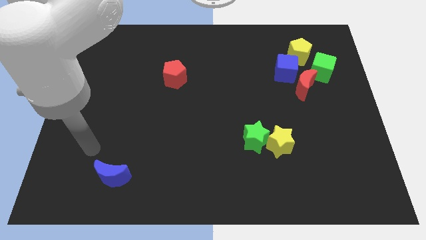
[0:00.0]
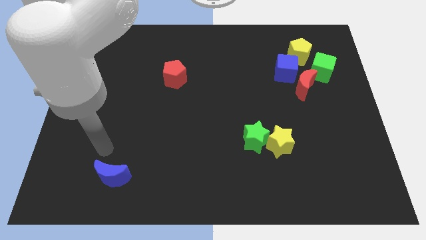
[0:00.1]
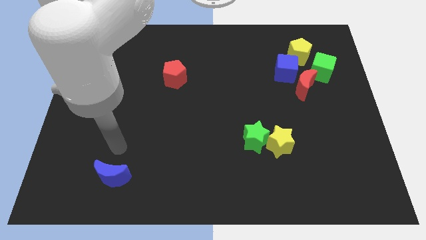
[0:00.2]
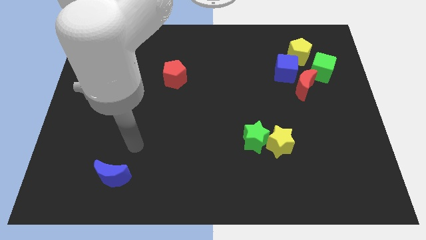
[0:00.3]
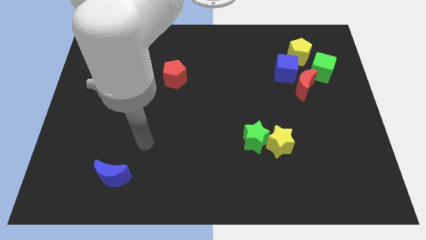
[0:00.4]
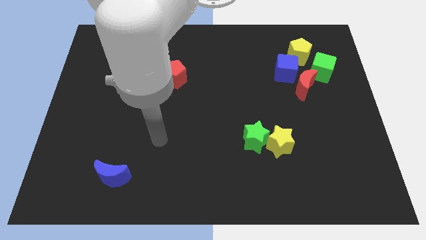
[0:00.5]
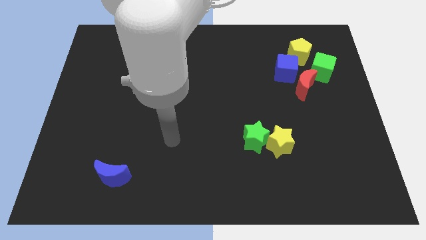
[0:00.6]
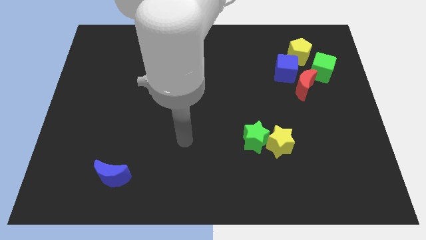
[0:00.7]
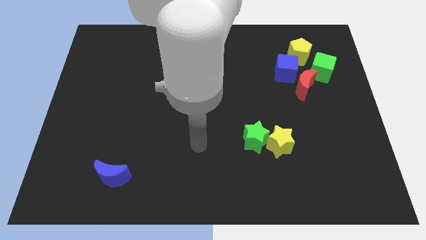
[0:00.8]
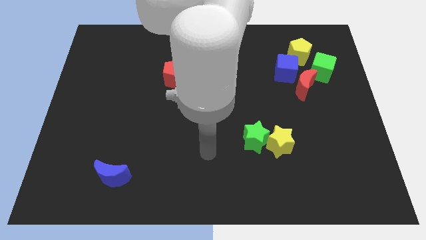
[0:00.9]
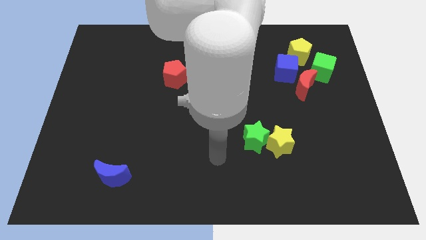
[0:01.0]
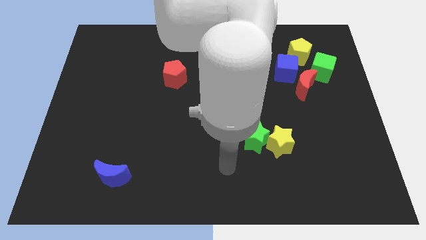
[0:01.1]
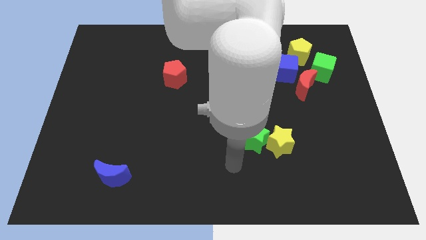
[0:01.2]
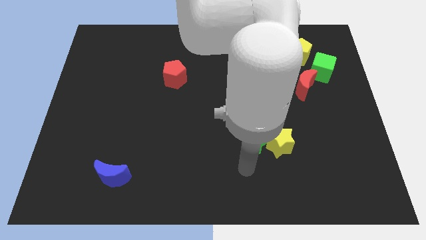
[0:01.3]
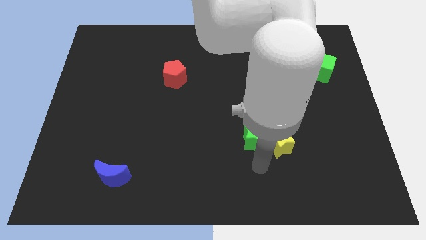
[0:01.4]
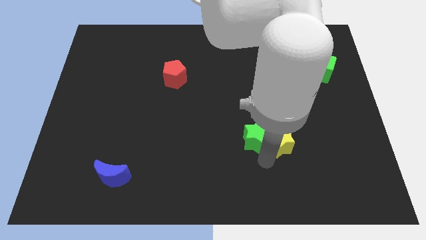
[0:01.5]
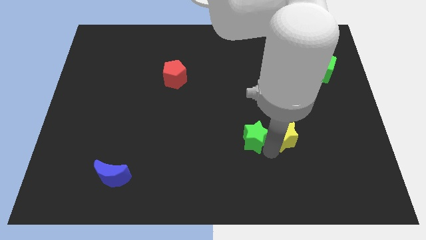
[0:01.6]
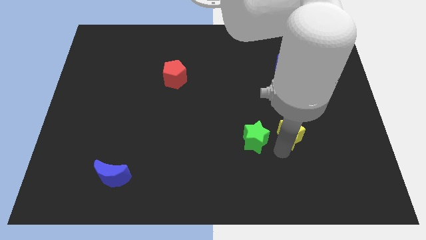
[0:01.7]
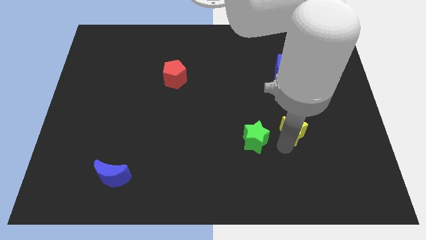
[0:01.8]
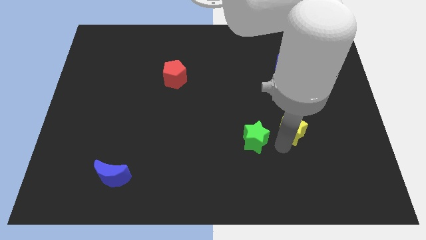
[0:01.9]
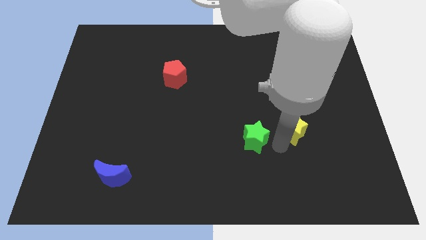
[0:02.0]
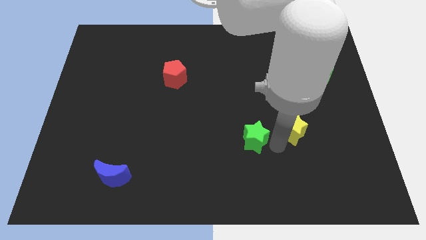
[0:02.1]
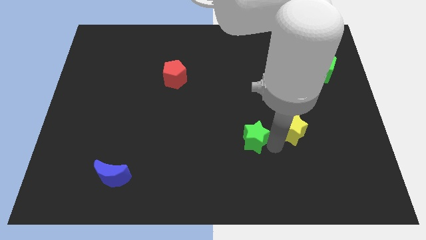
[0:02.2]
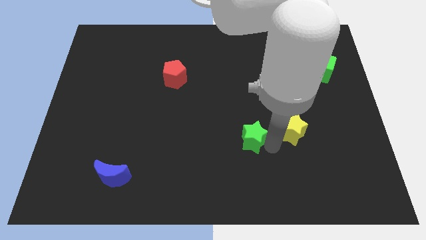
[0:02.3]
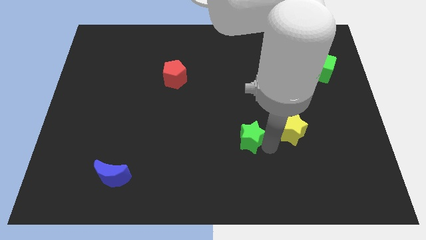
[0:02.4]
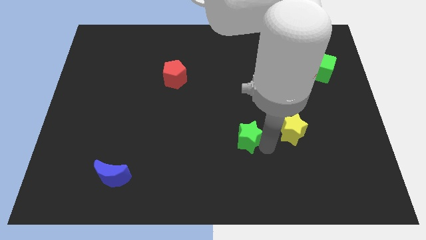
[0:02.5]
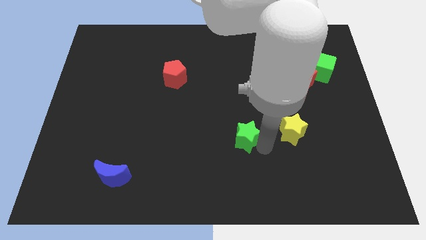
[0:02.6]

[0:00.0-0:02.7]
separate the green star from the yellow star

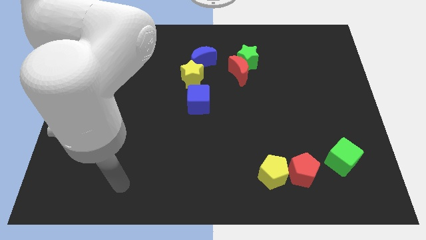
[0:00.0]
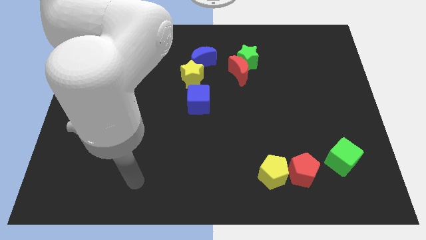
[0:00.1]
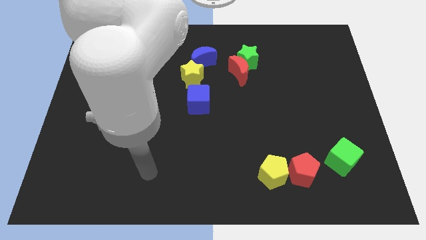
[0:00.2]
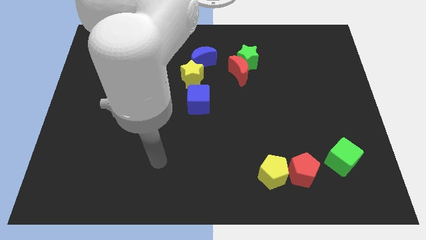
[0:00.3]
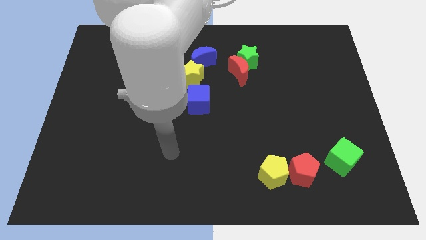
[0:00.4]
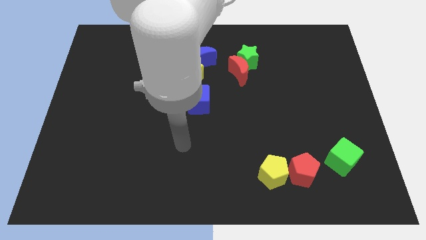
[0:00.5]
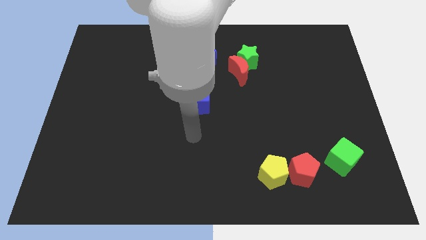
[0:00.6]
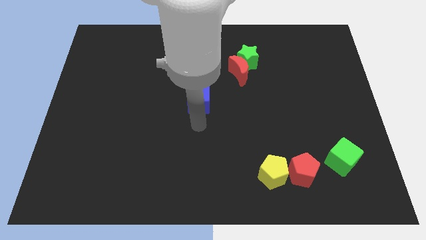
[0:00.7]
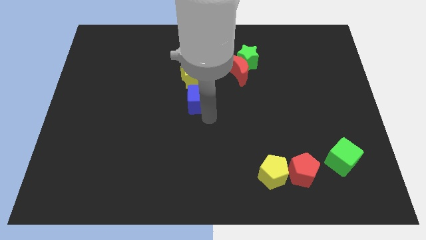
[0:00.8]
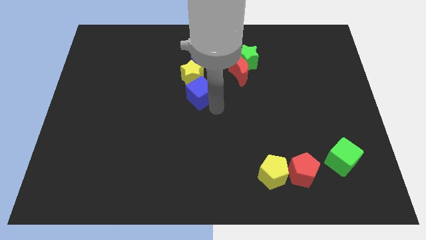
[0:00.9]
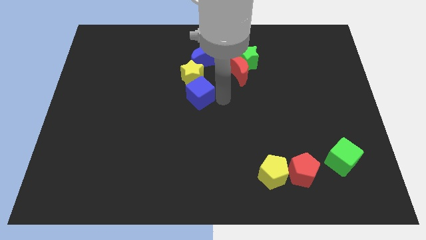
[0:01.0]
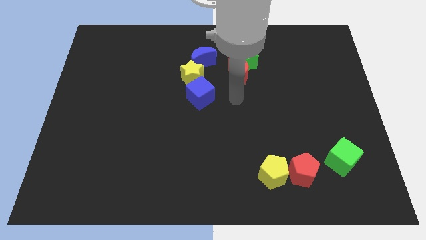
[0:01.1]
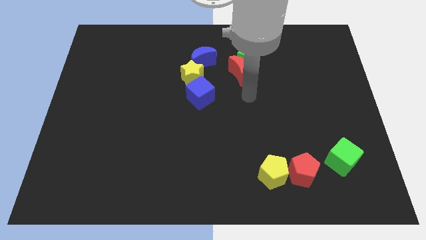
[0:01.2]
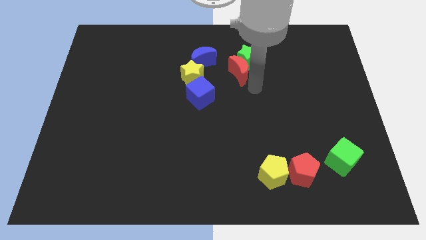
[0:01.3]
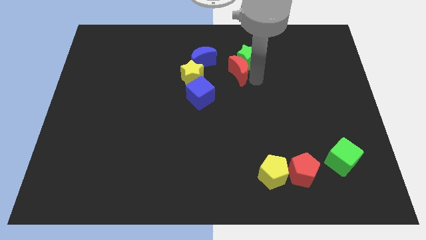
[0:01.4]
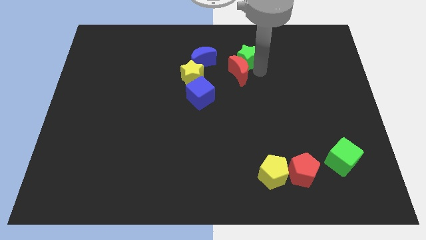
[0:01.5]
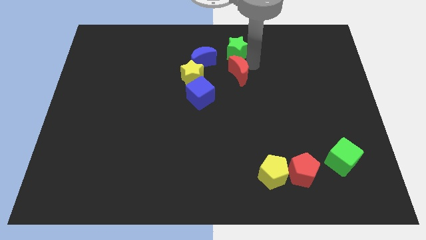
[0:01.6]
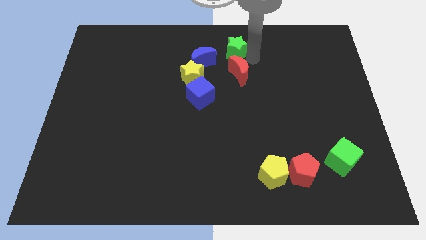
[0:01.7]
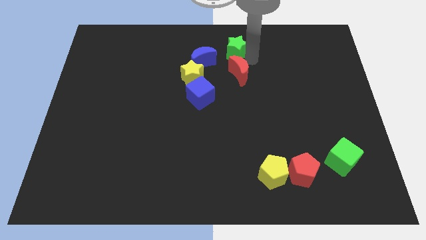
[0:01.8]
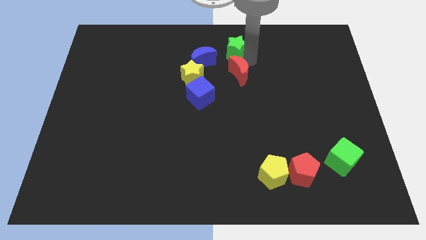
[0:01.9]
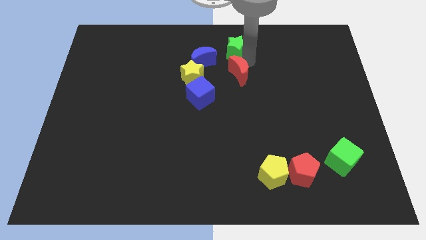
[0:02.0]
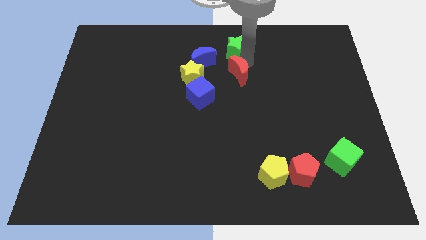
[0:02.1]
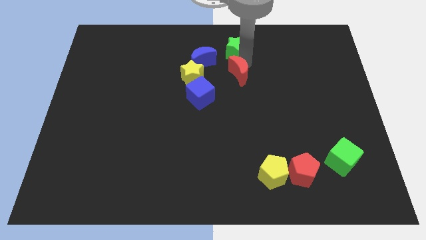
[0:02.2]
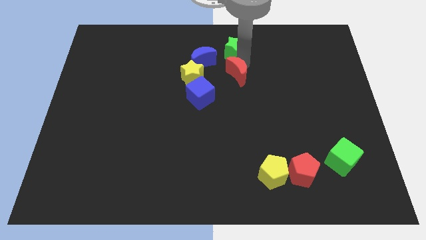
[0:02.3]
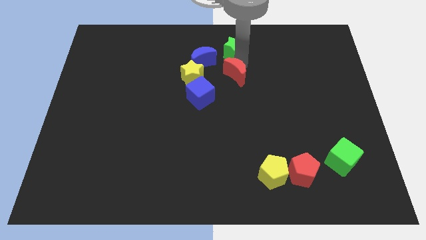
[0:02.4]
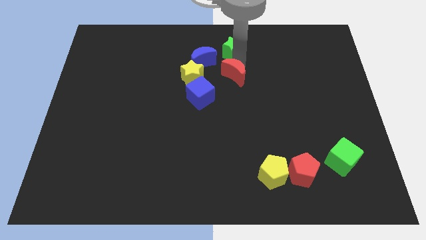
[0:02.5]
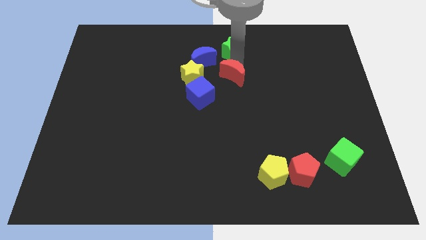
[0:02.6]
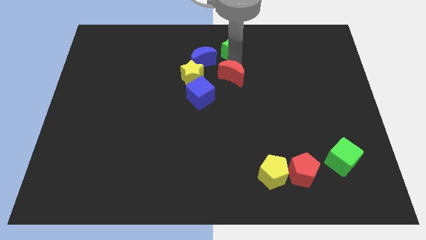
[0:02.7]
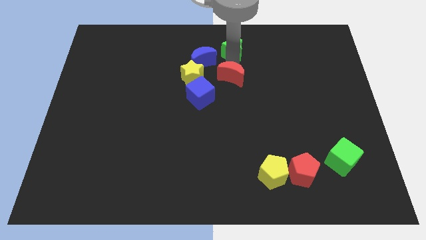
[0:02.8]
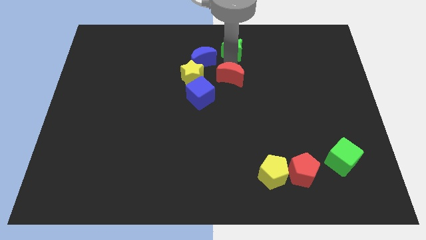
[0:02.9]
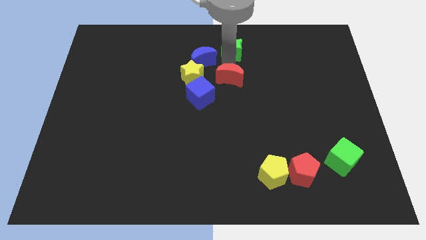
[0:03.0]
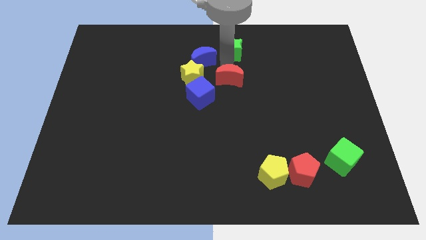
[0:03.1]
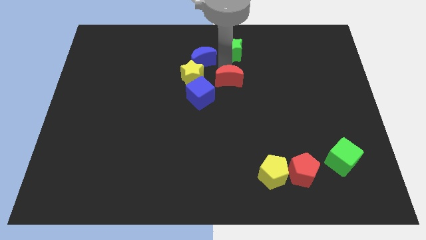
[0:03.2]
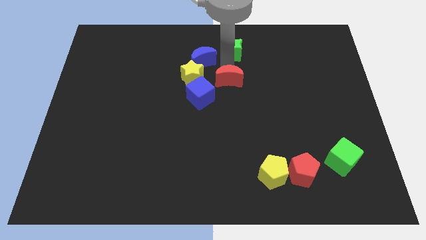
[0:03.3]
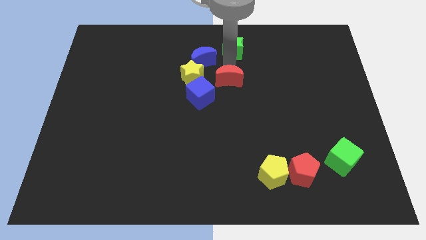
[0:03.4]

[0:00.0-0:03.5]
move the red moon away from the green star

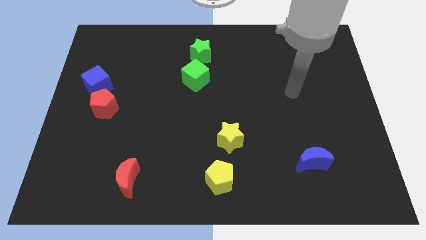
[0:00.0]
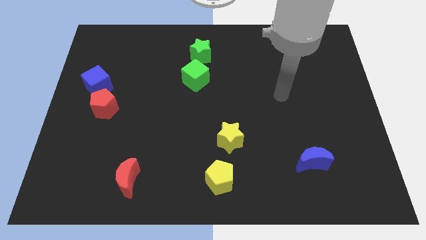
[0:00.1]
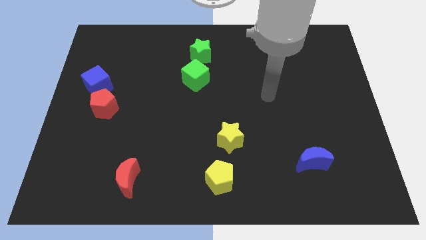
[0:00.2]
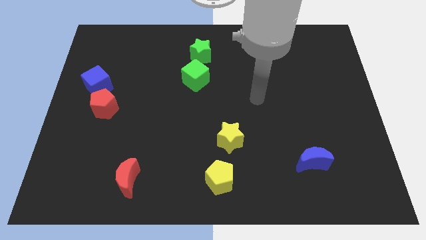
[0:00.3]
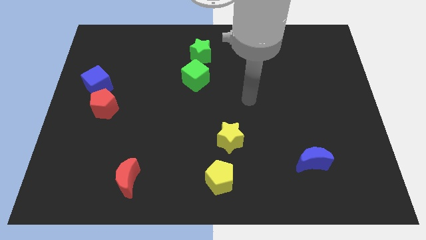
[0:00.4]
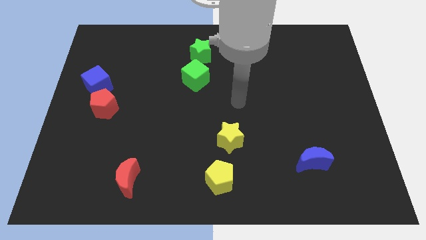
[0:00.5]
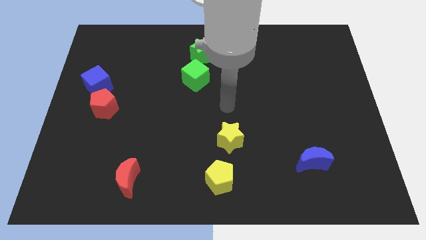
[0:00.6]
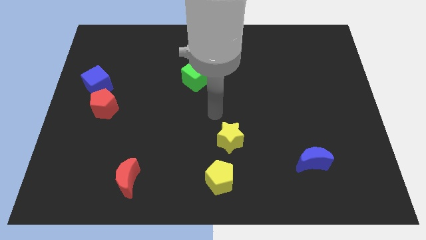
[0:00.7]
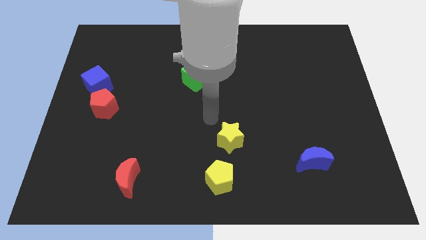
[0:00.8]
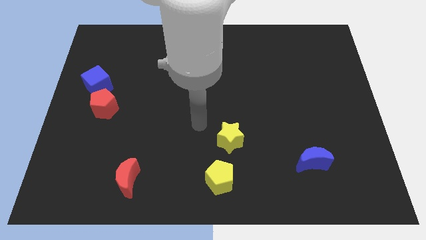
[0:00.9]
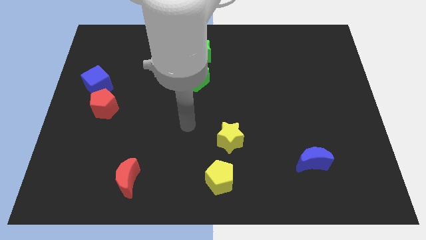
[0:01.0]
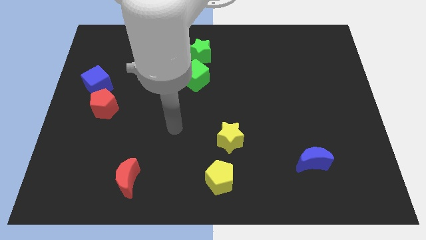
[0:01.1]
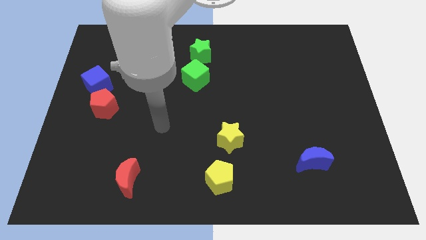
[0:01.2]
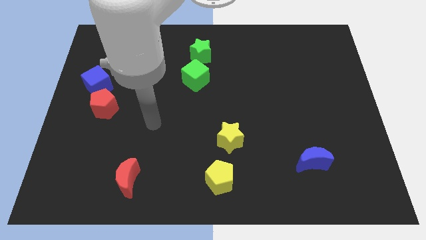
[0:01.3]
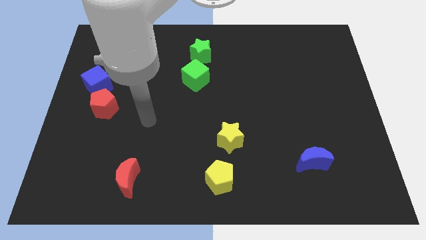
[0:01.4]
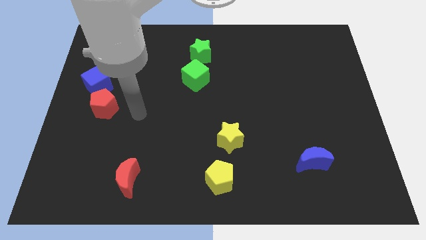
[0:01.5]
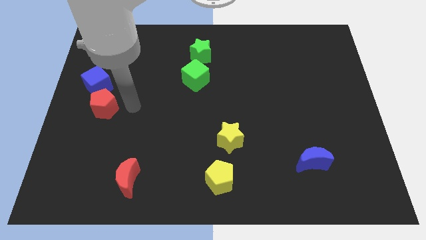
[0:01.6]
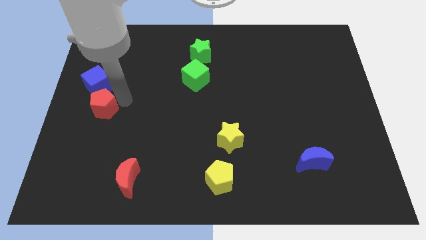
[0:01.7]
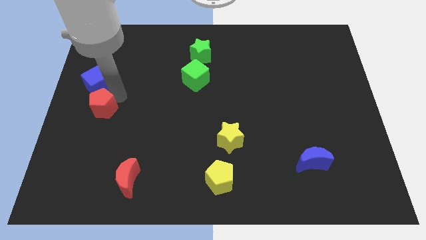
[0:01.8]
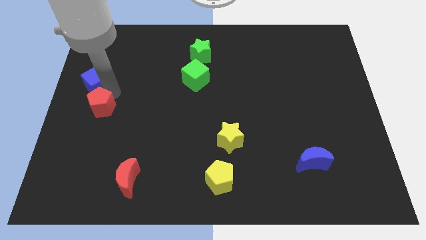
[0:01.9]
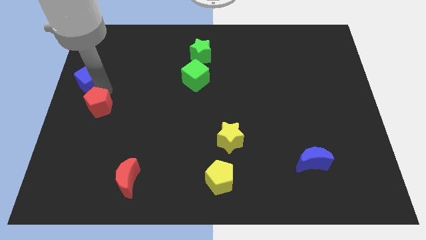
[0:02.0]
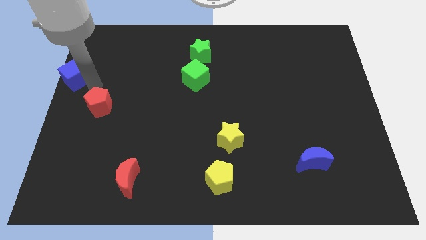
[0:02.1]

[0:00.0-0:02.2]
move the red pentagon away from the blue cube

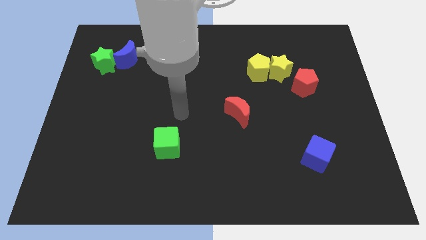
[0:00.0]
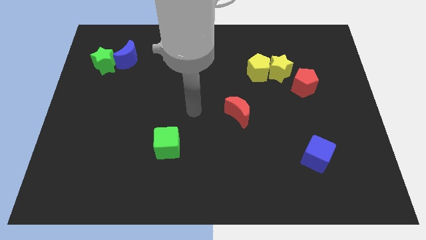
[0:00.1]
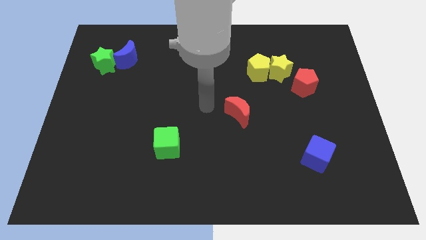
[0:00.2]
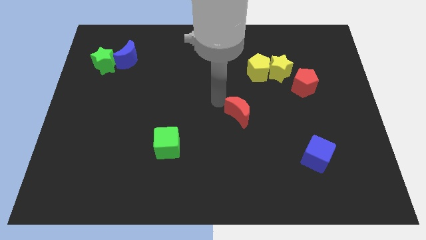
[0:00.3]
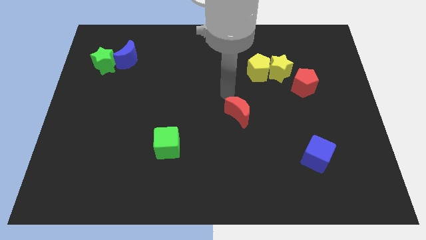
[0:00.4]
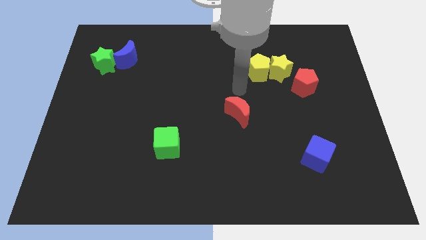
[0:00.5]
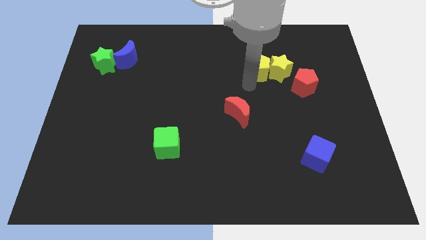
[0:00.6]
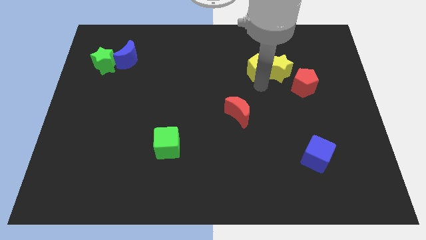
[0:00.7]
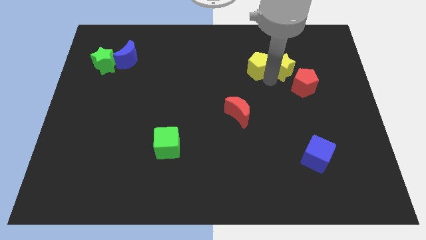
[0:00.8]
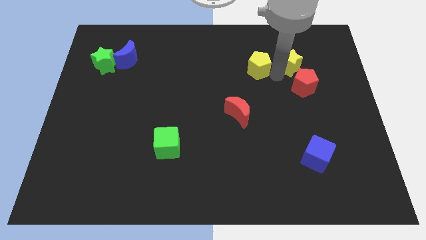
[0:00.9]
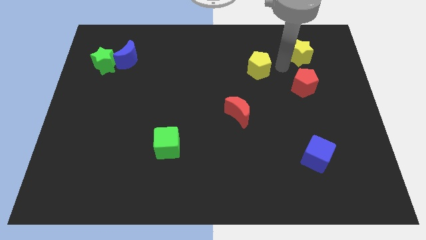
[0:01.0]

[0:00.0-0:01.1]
pull the yellow pentagon apart from the yellow star
